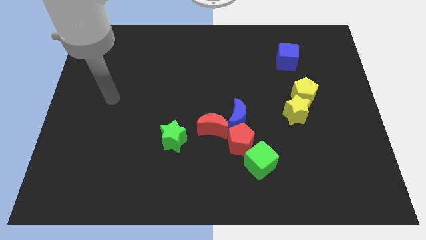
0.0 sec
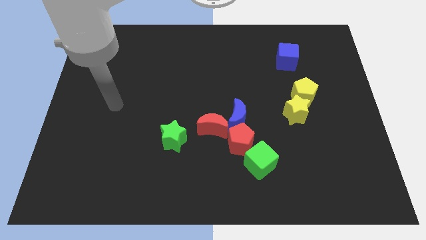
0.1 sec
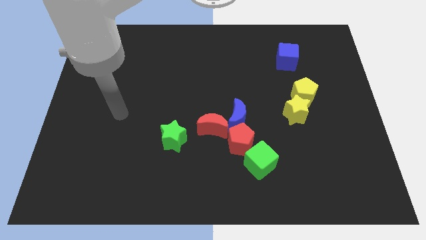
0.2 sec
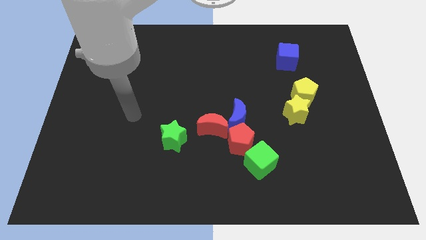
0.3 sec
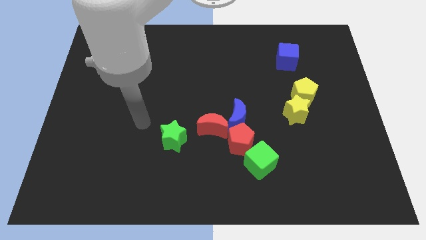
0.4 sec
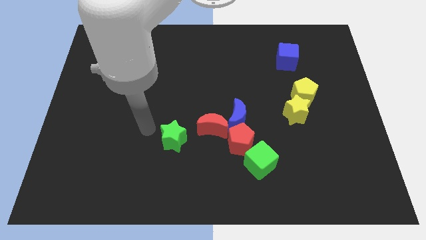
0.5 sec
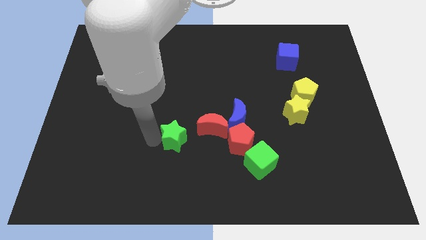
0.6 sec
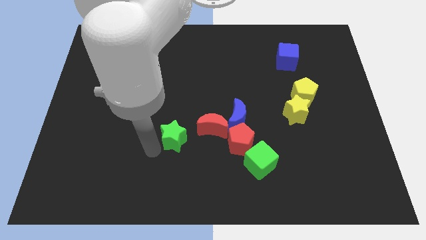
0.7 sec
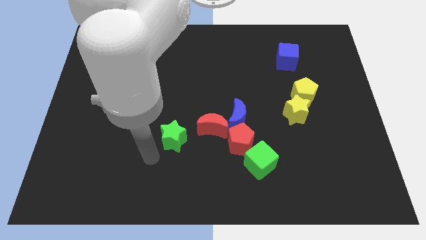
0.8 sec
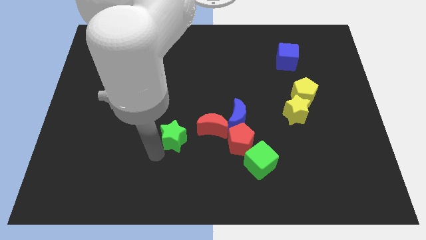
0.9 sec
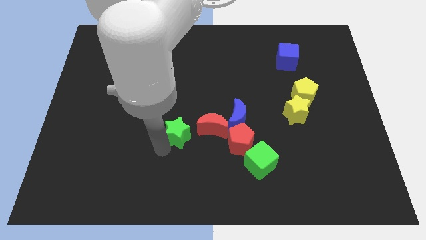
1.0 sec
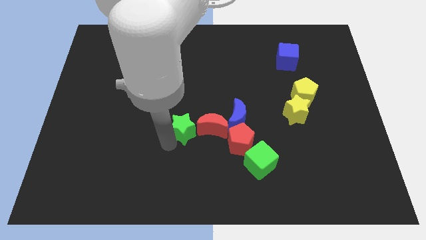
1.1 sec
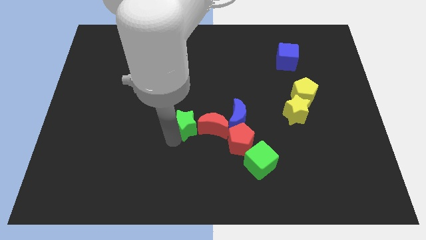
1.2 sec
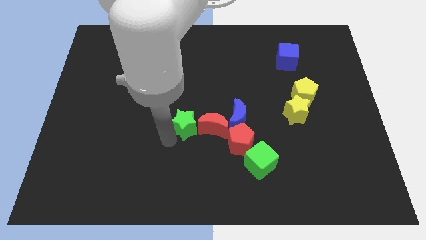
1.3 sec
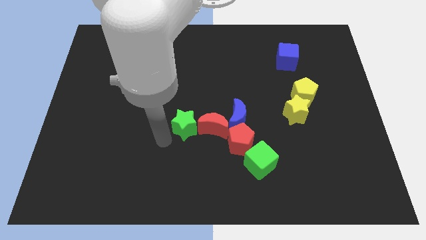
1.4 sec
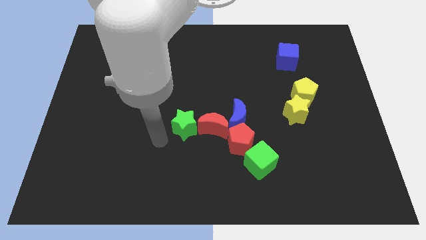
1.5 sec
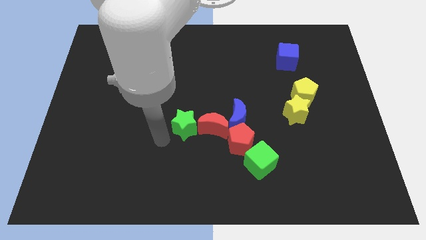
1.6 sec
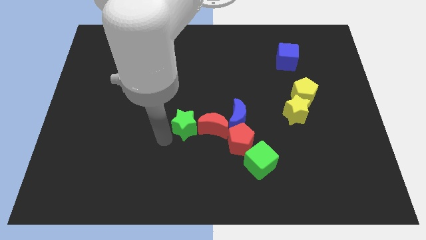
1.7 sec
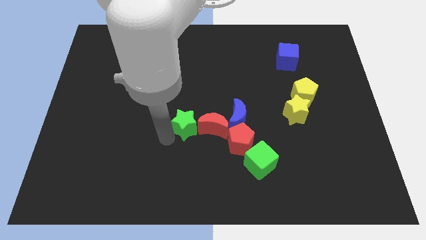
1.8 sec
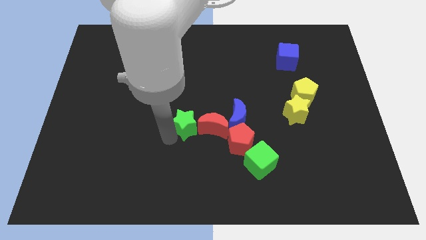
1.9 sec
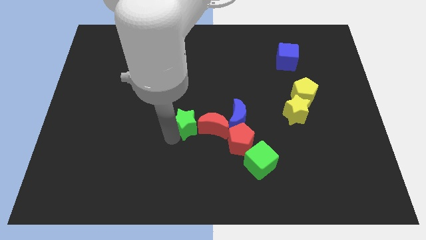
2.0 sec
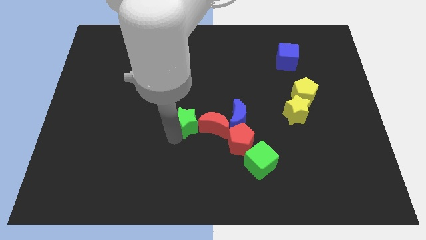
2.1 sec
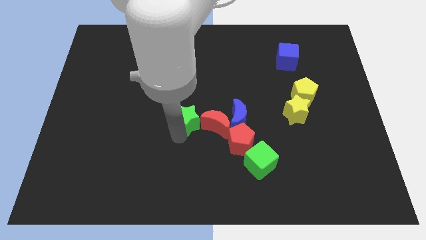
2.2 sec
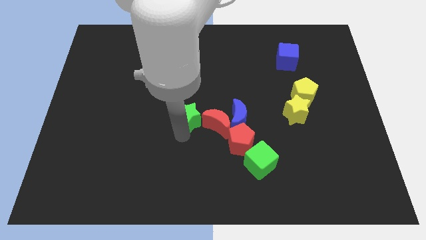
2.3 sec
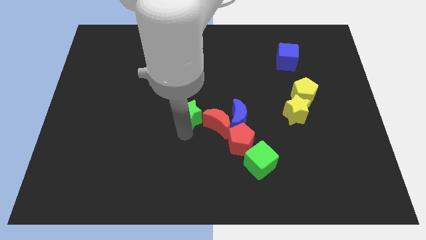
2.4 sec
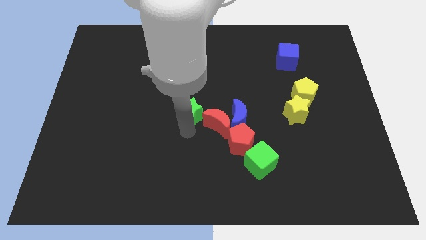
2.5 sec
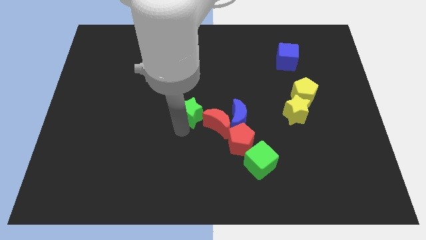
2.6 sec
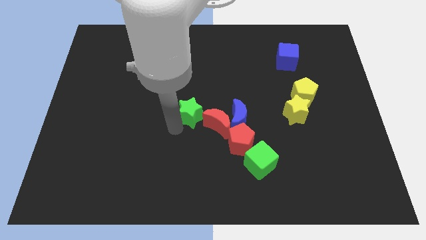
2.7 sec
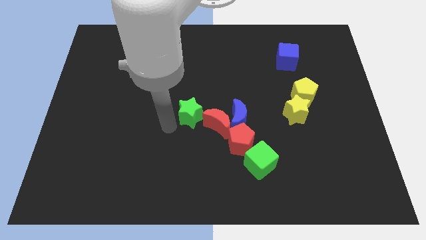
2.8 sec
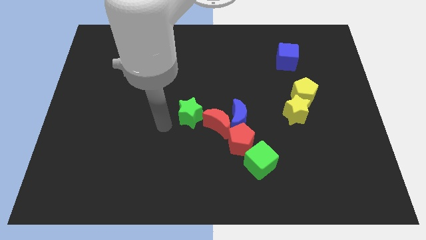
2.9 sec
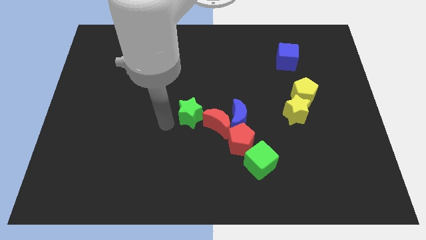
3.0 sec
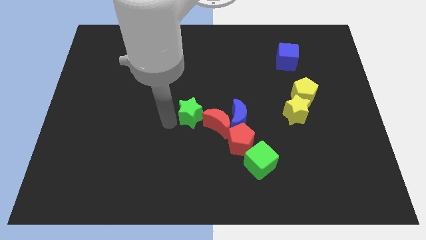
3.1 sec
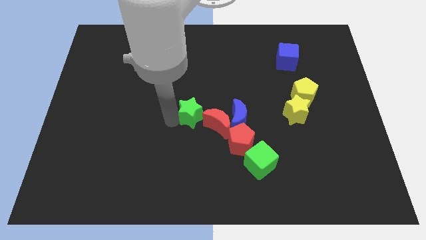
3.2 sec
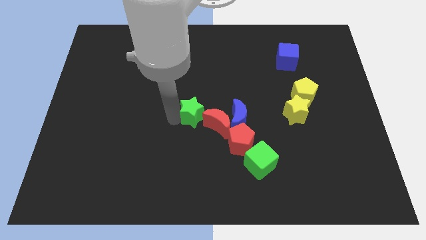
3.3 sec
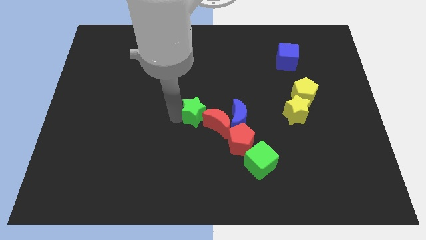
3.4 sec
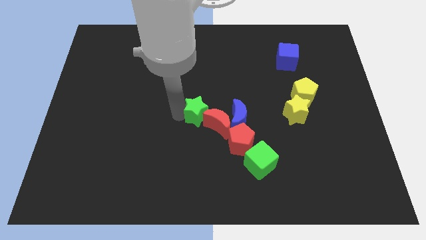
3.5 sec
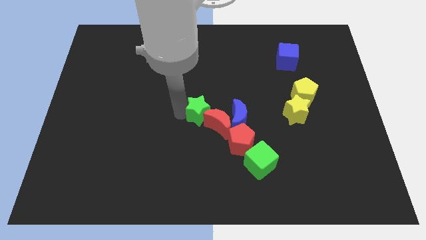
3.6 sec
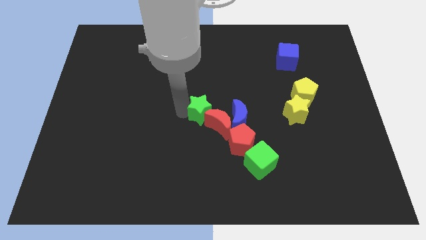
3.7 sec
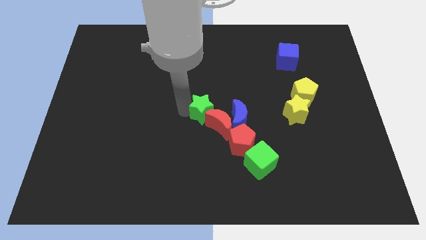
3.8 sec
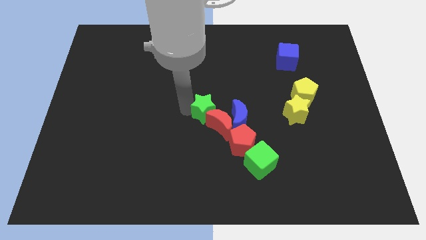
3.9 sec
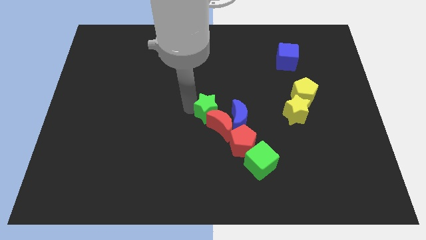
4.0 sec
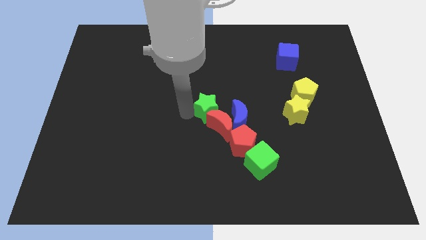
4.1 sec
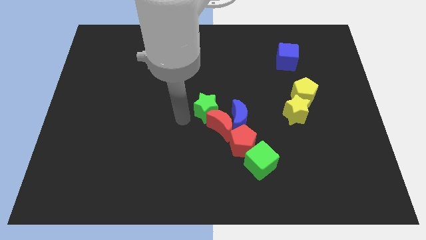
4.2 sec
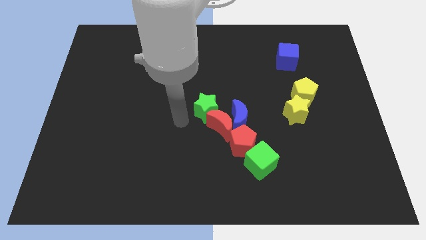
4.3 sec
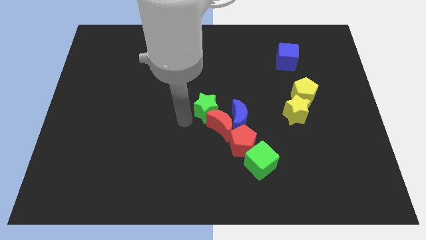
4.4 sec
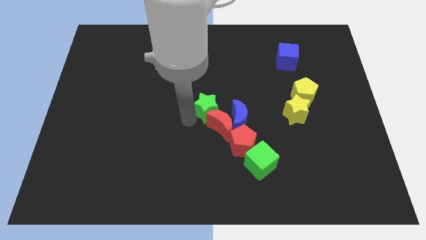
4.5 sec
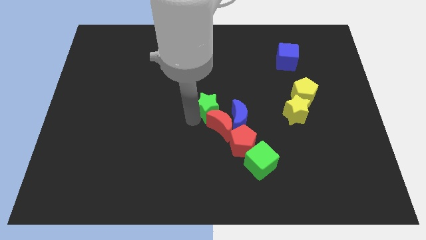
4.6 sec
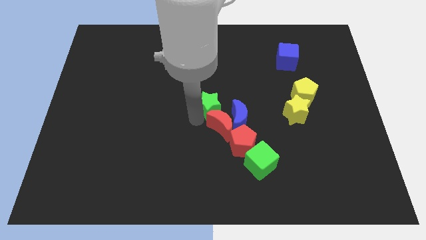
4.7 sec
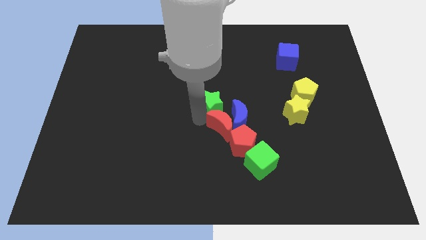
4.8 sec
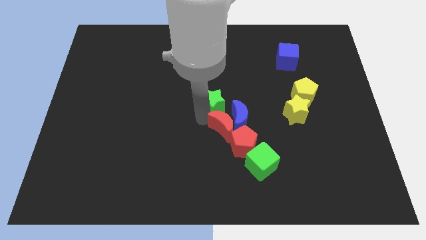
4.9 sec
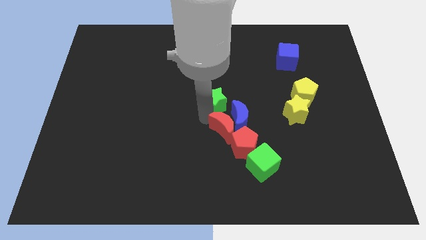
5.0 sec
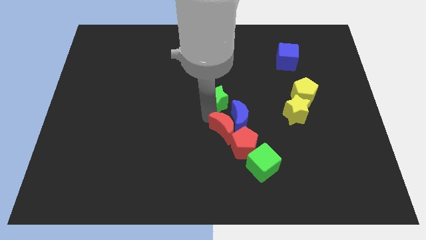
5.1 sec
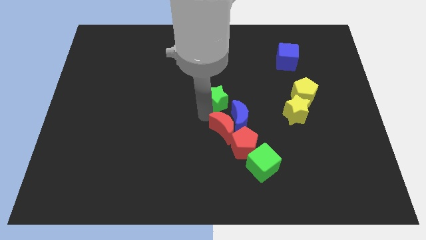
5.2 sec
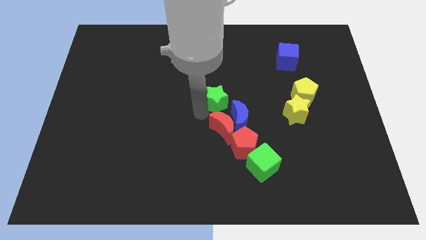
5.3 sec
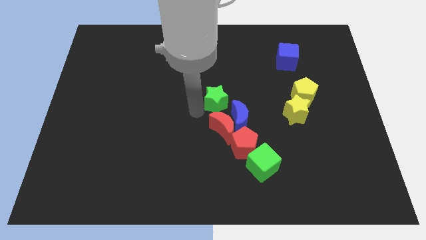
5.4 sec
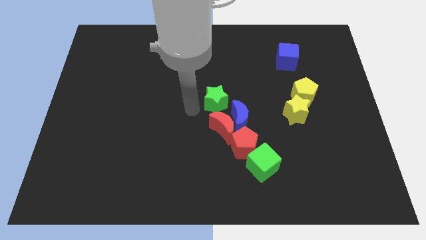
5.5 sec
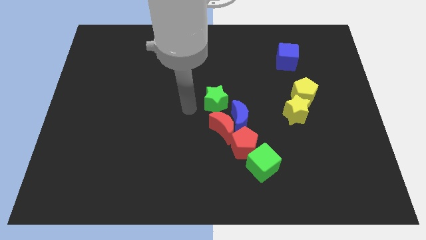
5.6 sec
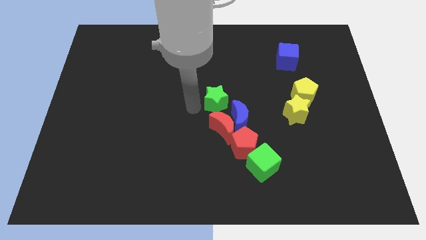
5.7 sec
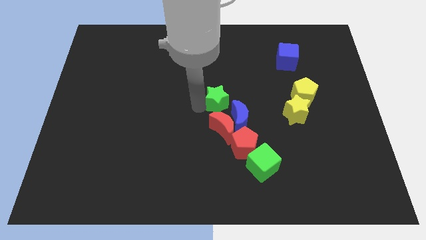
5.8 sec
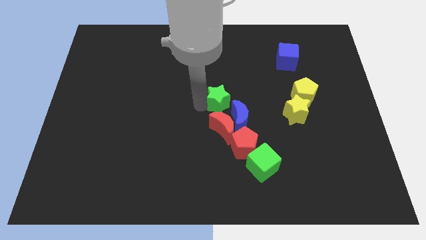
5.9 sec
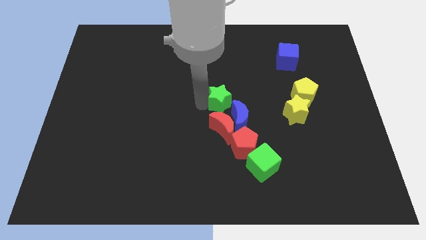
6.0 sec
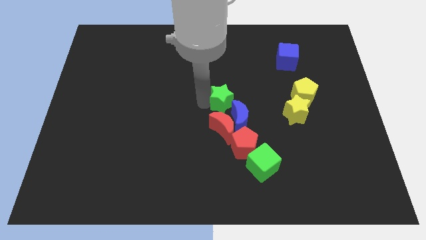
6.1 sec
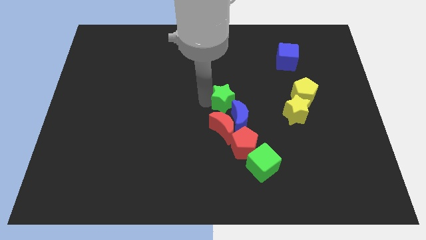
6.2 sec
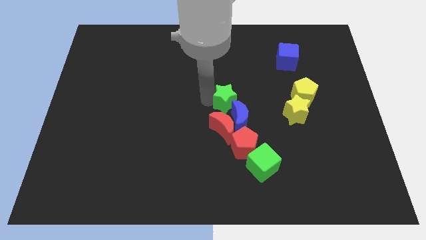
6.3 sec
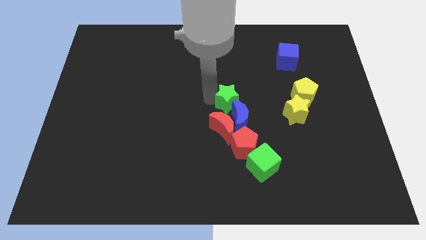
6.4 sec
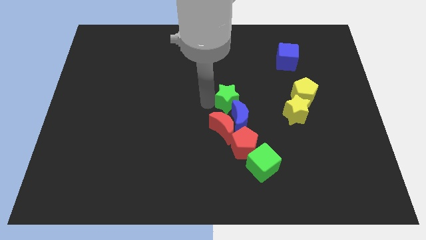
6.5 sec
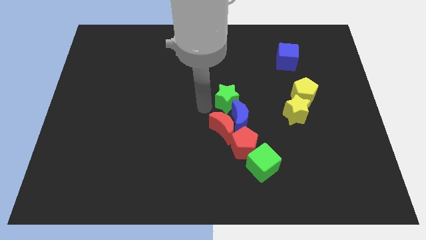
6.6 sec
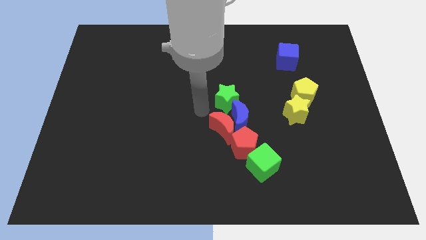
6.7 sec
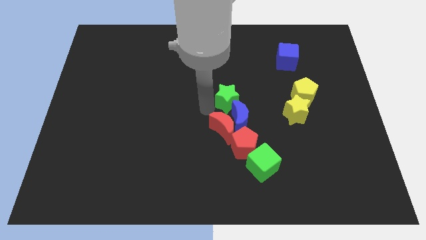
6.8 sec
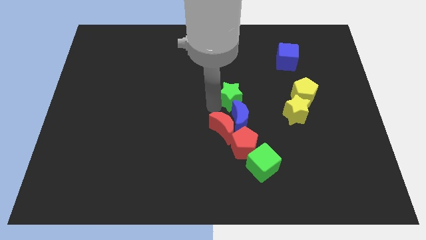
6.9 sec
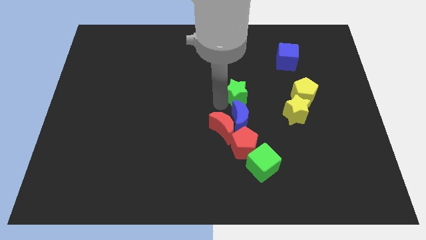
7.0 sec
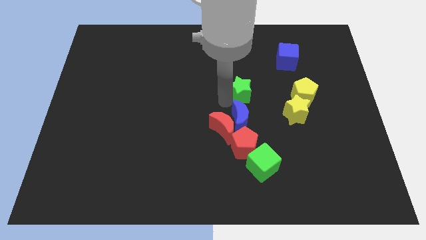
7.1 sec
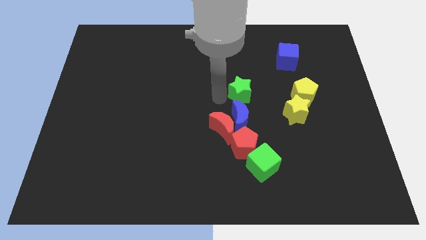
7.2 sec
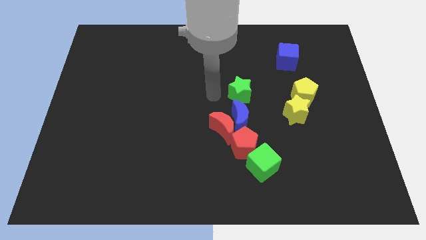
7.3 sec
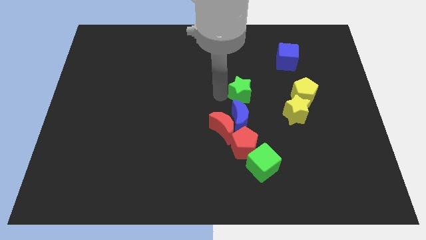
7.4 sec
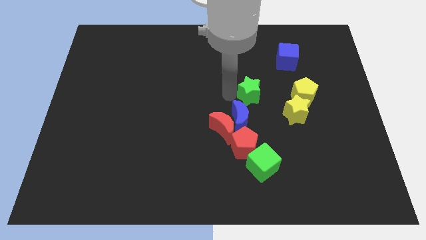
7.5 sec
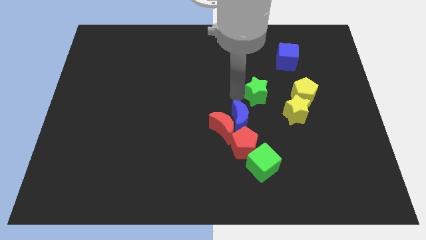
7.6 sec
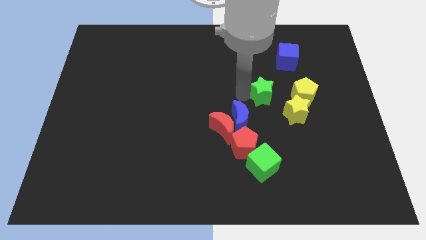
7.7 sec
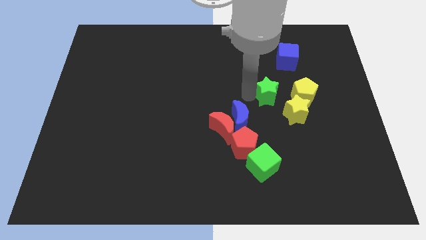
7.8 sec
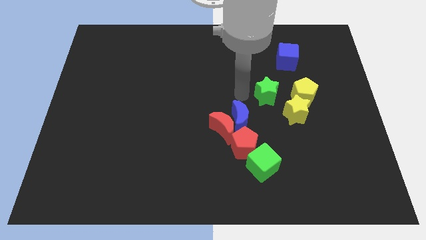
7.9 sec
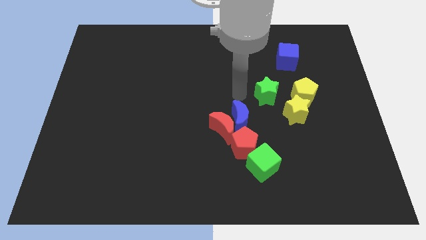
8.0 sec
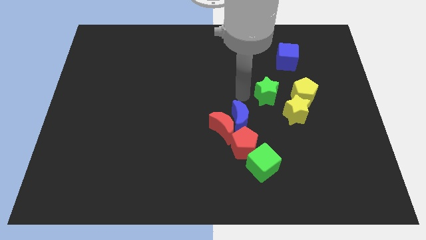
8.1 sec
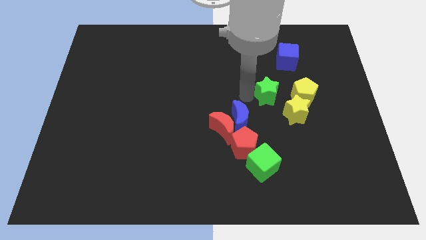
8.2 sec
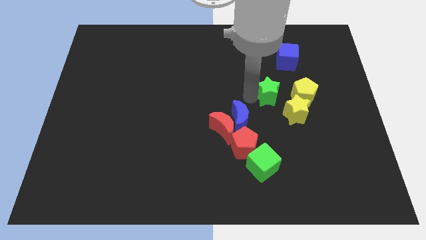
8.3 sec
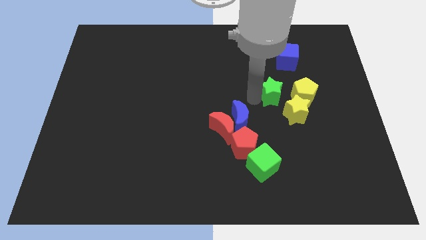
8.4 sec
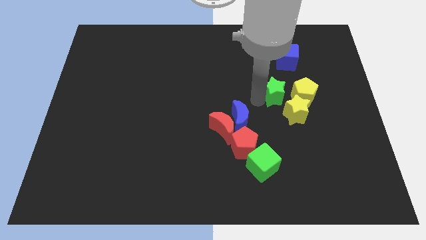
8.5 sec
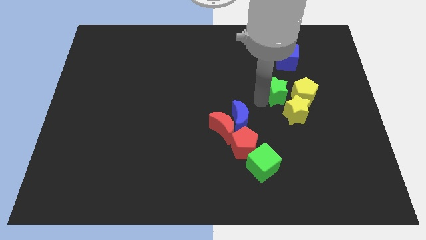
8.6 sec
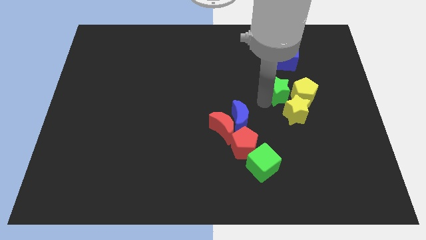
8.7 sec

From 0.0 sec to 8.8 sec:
move the green star to the yellow pentagon
